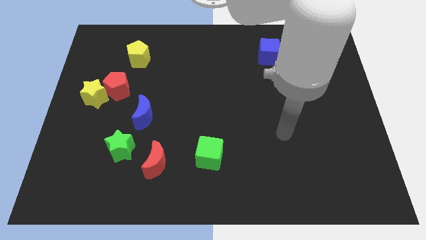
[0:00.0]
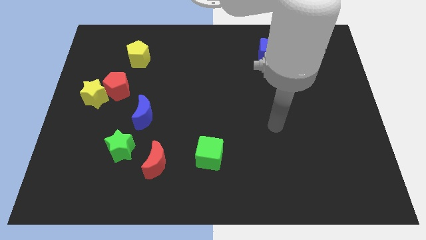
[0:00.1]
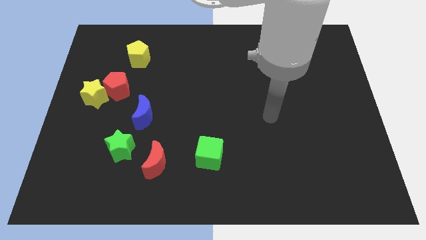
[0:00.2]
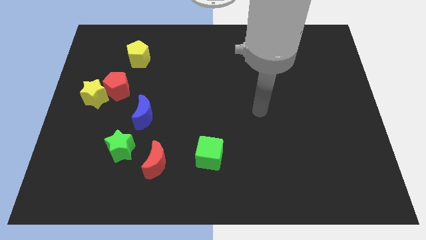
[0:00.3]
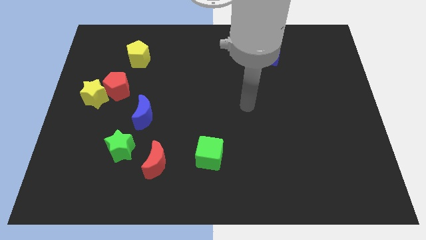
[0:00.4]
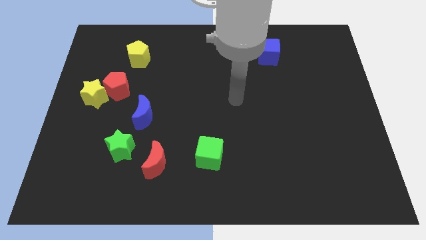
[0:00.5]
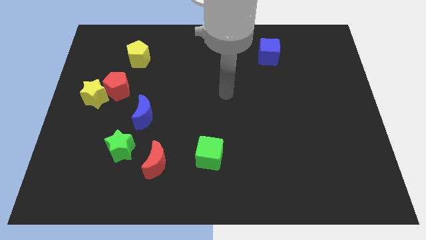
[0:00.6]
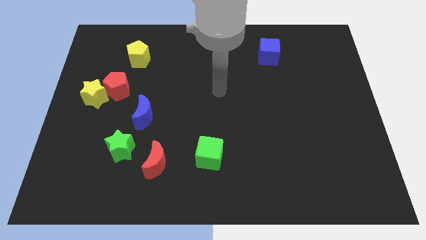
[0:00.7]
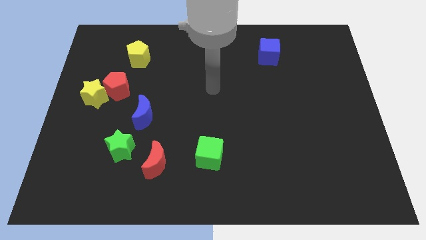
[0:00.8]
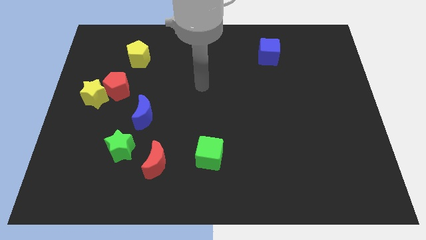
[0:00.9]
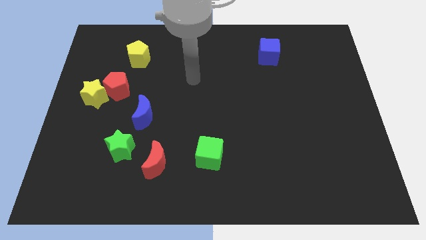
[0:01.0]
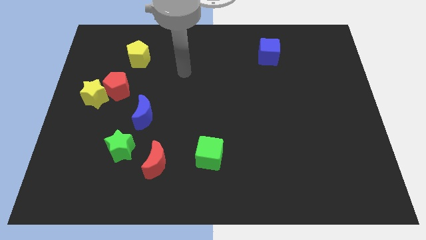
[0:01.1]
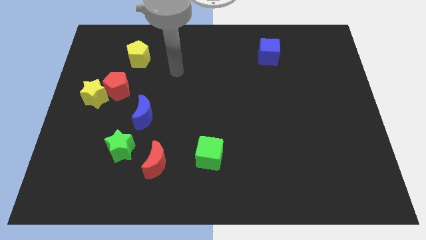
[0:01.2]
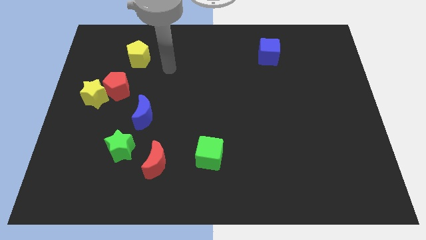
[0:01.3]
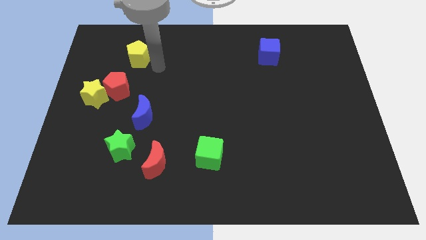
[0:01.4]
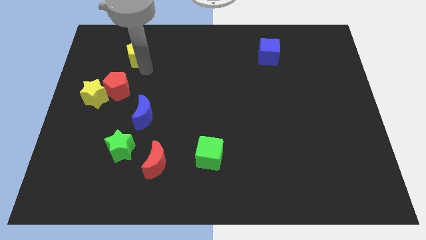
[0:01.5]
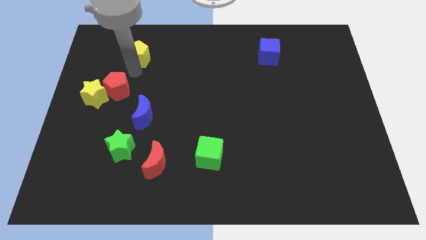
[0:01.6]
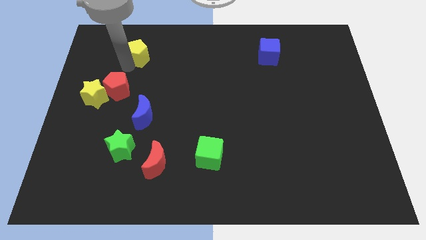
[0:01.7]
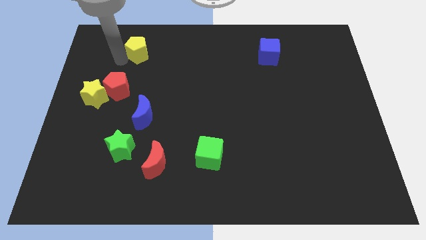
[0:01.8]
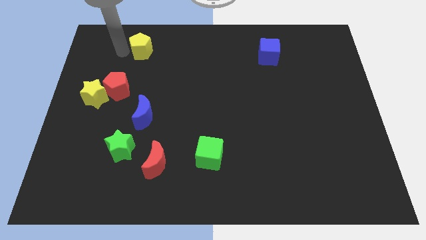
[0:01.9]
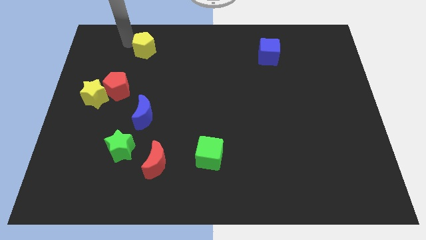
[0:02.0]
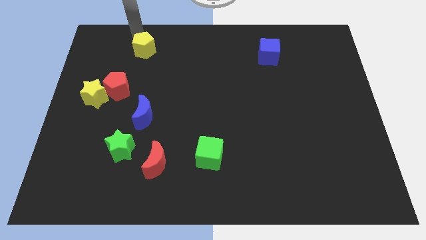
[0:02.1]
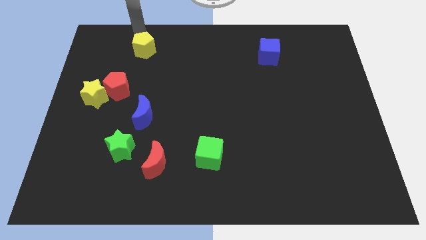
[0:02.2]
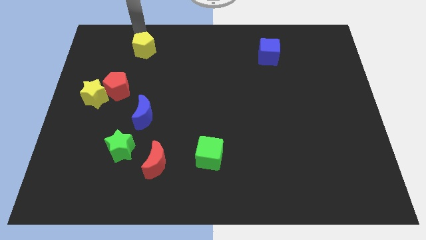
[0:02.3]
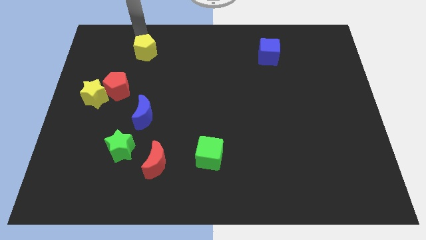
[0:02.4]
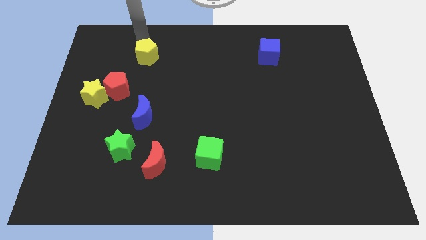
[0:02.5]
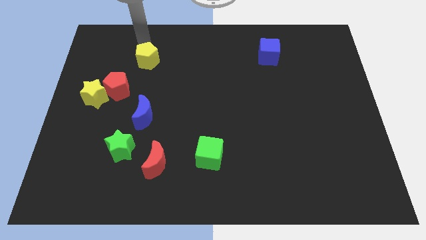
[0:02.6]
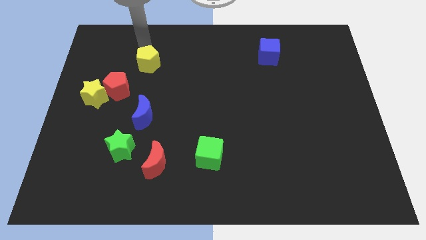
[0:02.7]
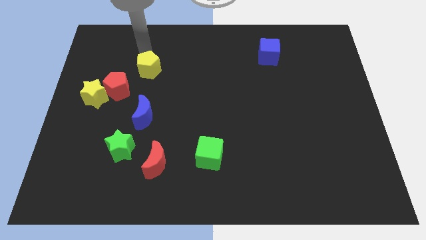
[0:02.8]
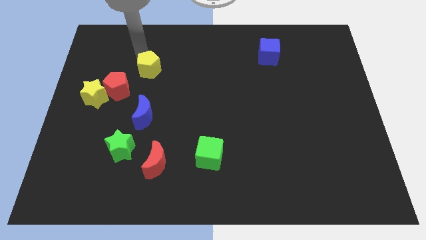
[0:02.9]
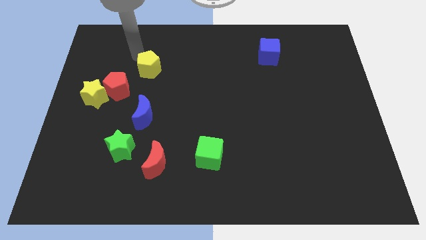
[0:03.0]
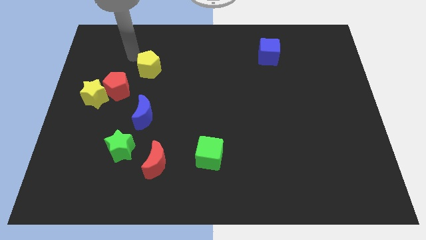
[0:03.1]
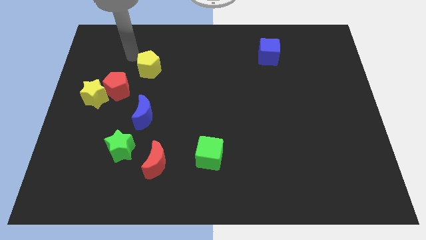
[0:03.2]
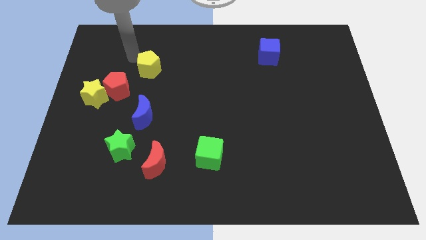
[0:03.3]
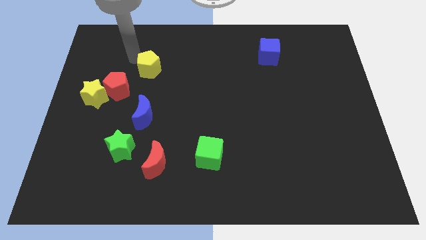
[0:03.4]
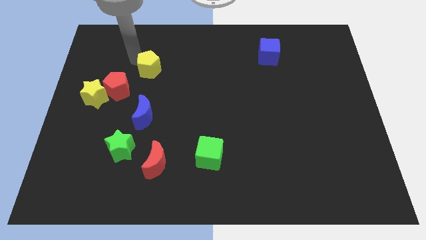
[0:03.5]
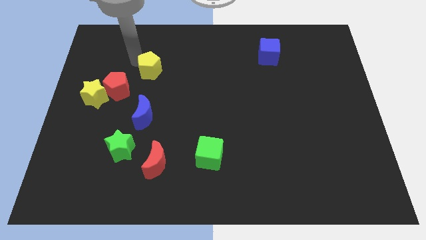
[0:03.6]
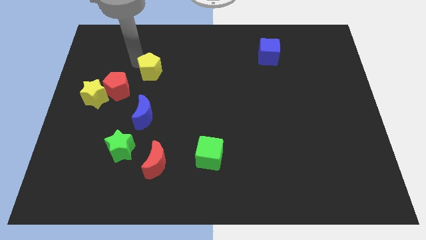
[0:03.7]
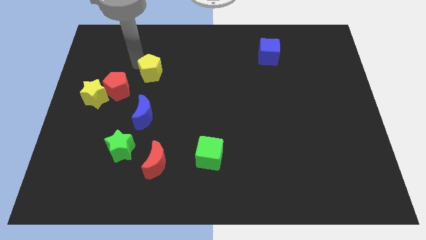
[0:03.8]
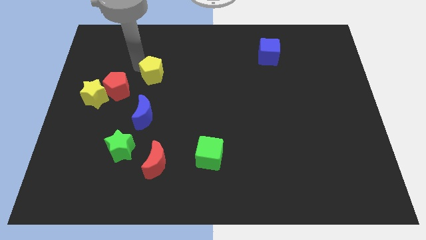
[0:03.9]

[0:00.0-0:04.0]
slightly push the yellow pentagon down and right diagonally

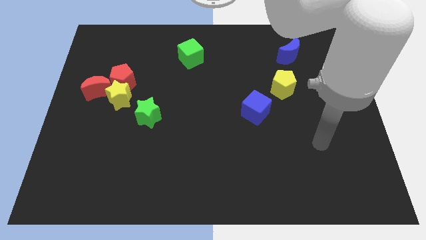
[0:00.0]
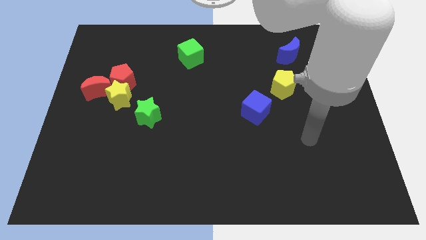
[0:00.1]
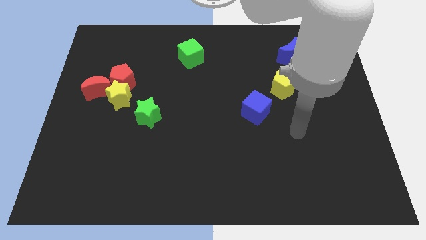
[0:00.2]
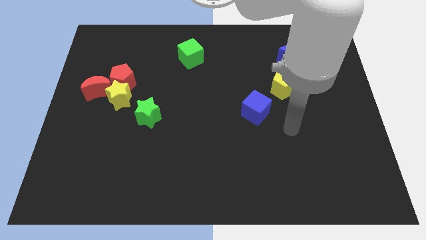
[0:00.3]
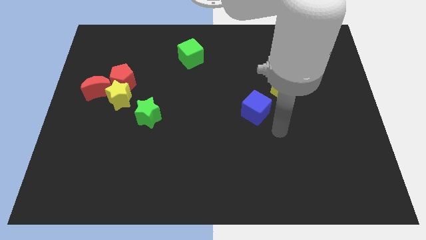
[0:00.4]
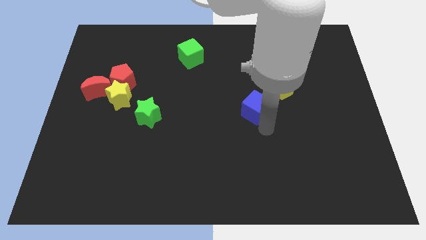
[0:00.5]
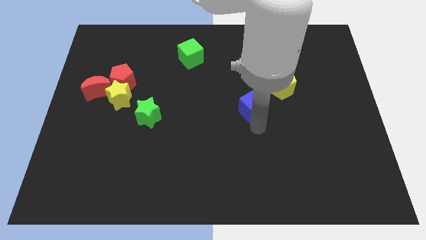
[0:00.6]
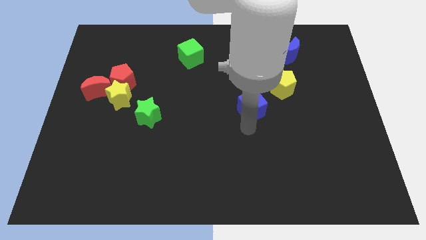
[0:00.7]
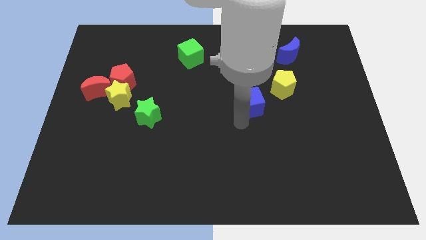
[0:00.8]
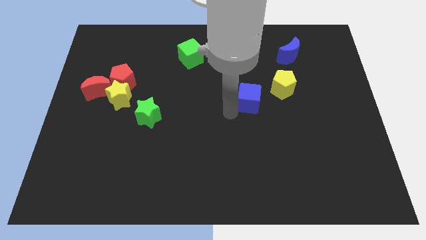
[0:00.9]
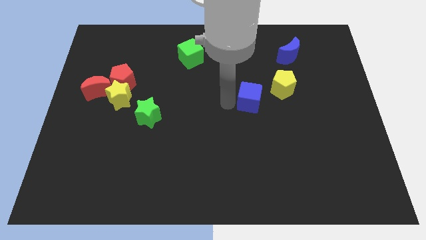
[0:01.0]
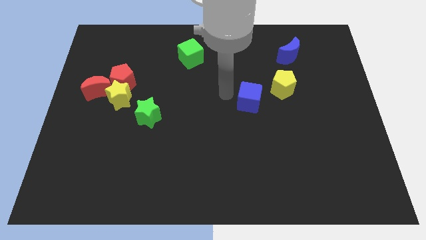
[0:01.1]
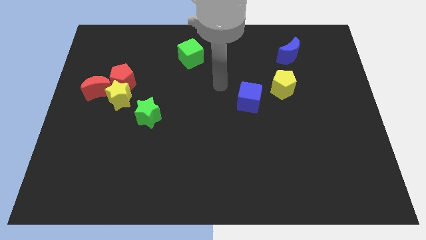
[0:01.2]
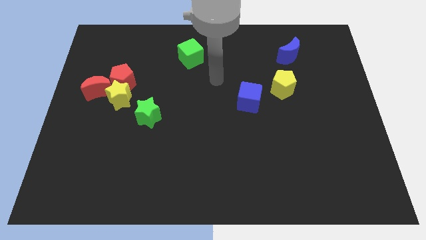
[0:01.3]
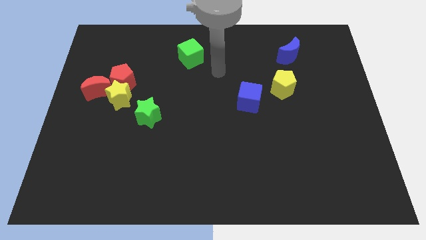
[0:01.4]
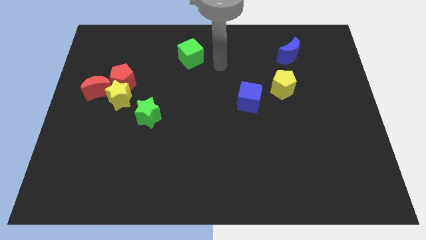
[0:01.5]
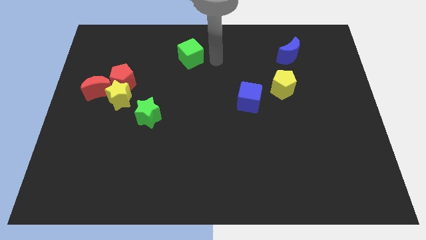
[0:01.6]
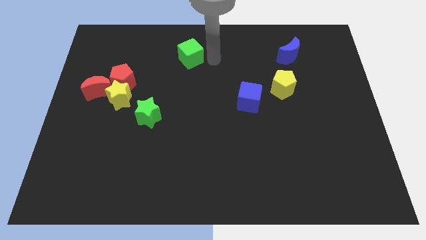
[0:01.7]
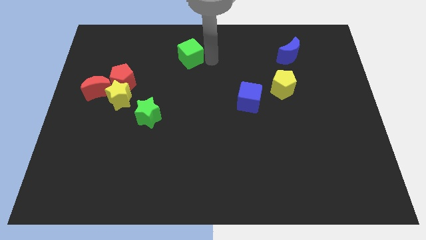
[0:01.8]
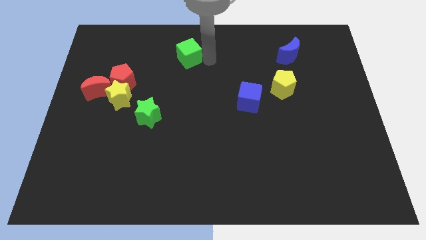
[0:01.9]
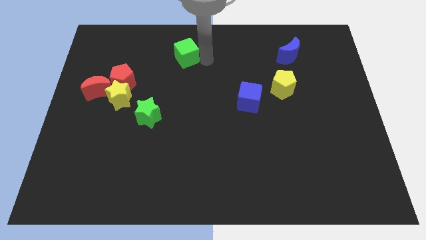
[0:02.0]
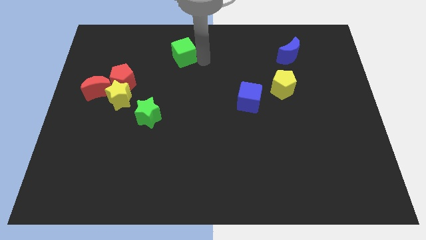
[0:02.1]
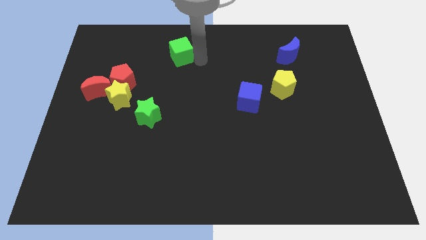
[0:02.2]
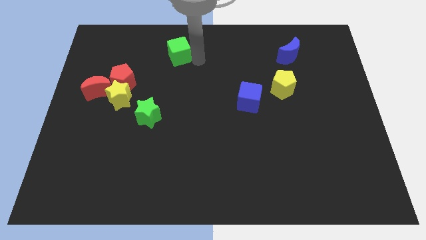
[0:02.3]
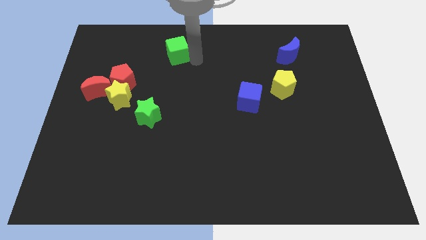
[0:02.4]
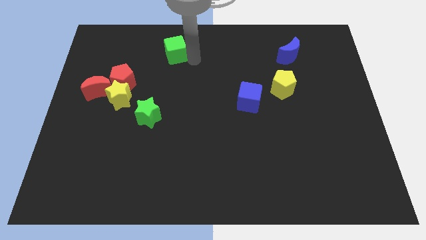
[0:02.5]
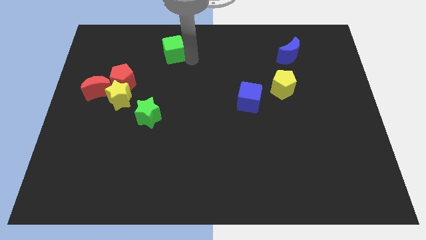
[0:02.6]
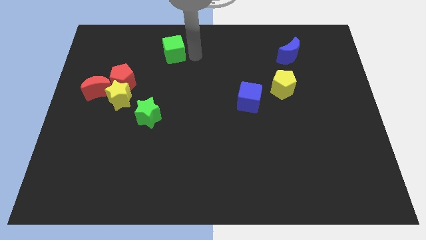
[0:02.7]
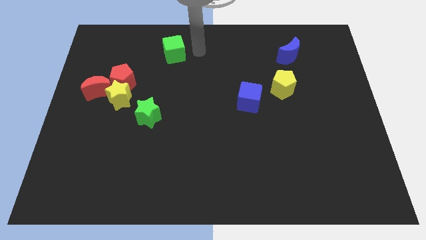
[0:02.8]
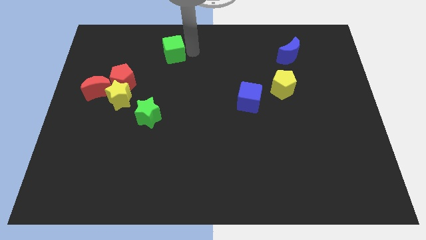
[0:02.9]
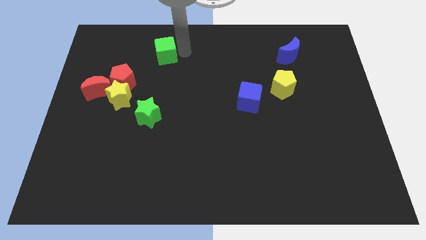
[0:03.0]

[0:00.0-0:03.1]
push the green cube left a little

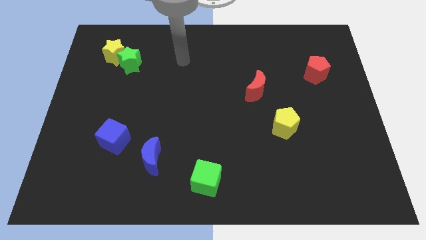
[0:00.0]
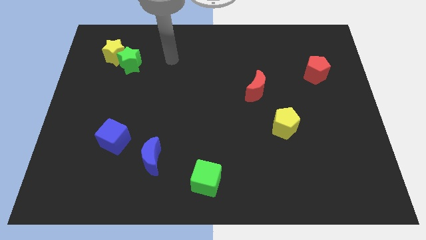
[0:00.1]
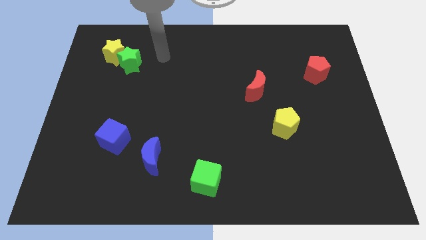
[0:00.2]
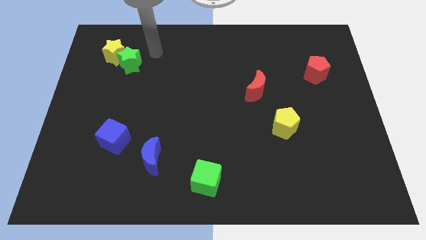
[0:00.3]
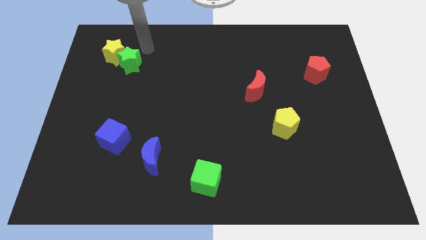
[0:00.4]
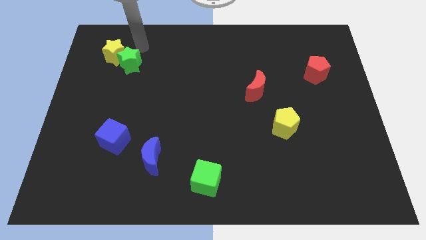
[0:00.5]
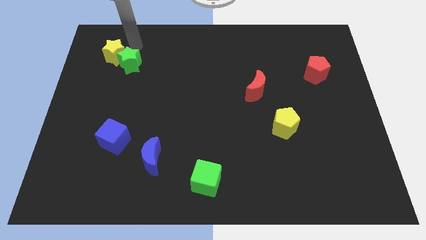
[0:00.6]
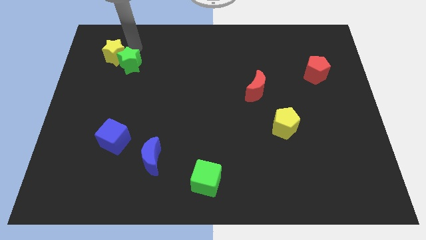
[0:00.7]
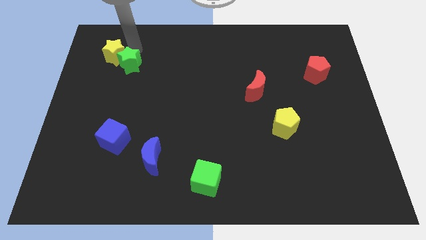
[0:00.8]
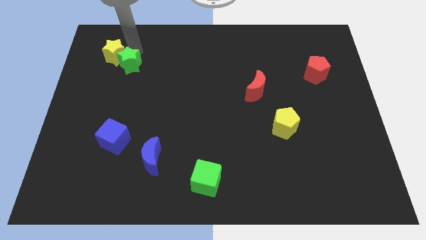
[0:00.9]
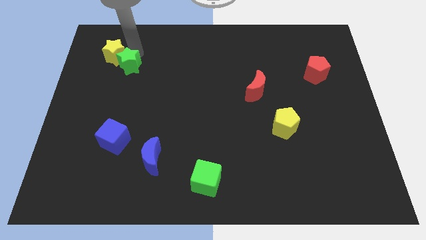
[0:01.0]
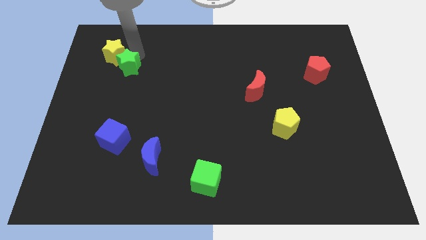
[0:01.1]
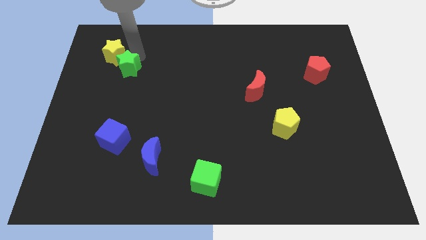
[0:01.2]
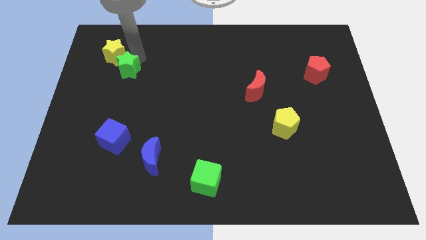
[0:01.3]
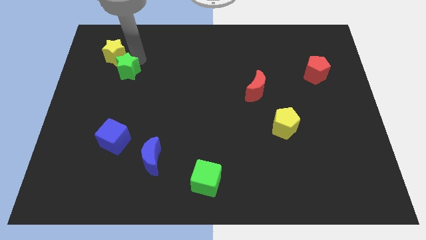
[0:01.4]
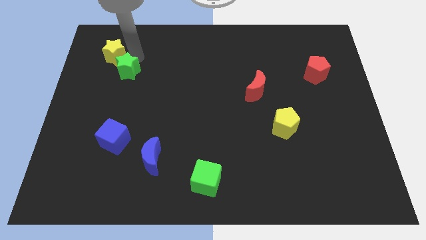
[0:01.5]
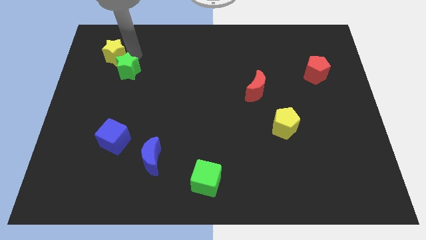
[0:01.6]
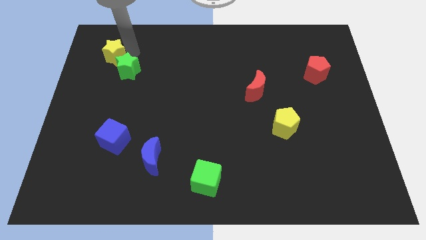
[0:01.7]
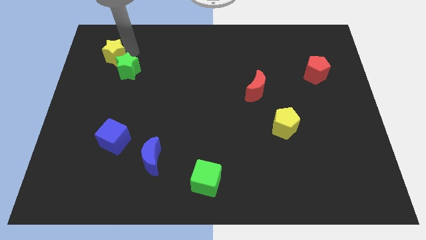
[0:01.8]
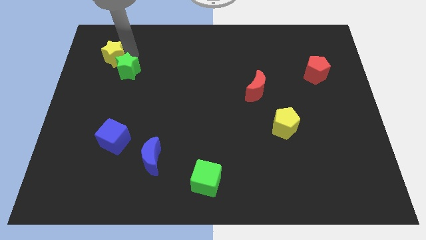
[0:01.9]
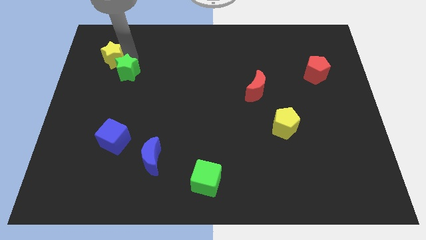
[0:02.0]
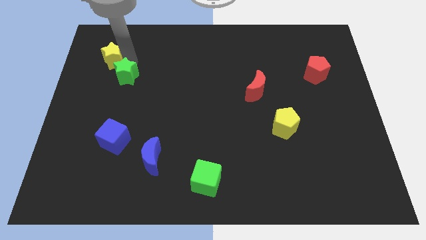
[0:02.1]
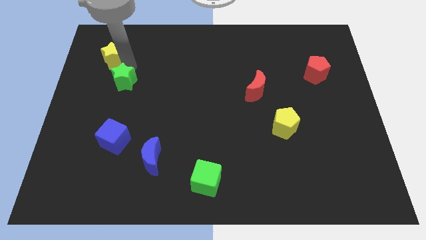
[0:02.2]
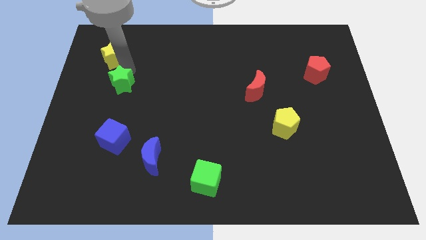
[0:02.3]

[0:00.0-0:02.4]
slightly move the green star down
